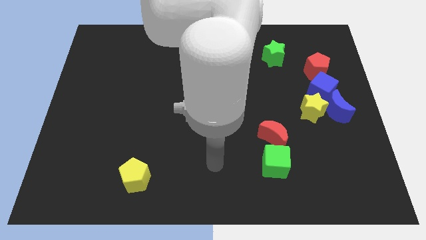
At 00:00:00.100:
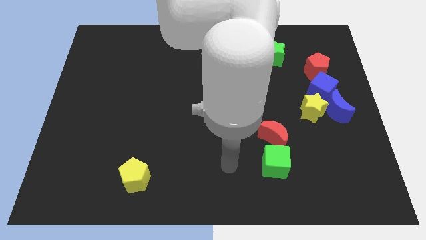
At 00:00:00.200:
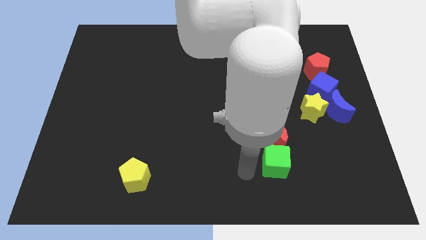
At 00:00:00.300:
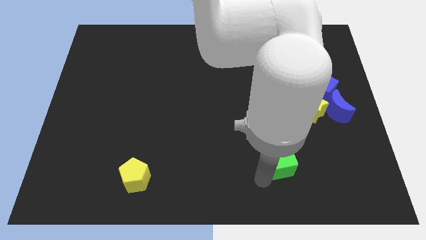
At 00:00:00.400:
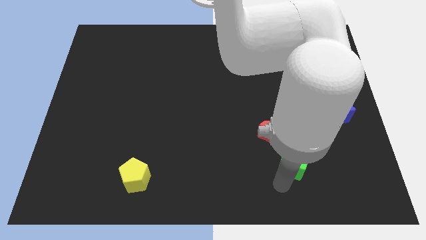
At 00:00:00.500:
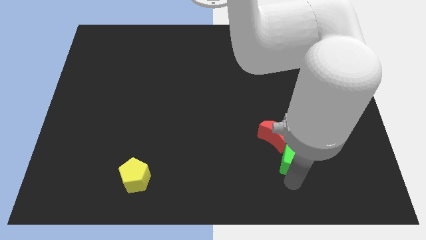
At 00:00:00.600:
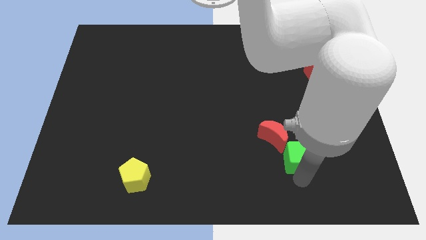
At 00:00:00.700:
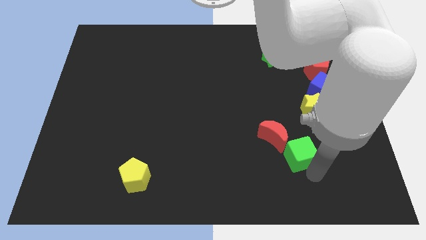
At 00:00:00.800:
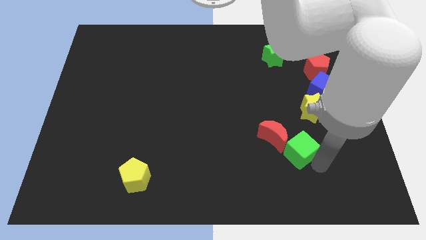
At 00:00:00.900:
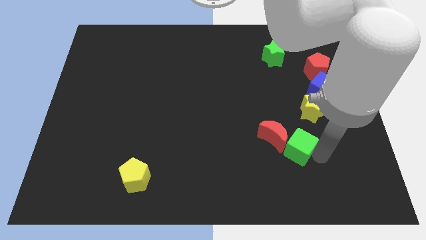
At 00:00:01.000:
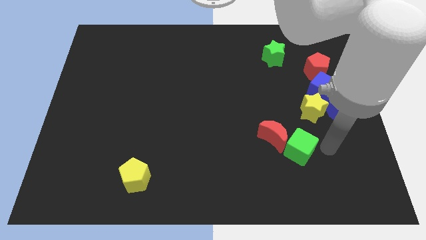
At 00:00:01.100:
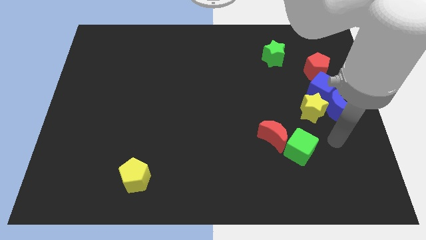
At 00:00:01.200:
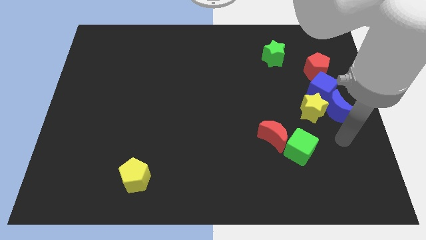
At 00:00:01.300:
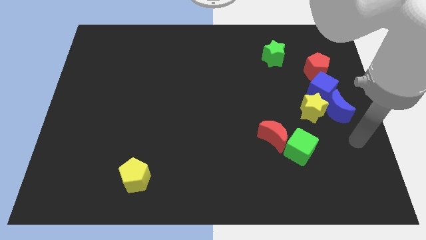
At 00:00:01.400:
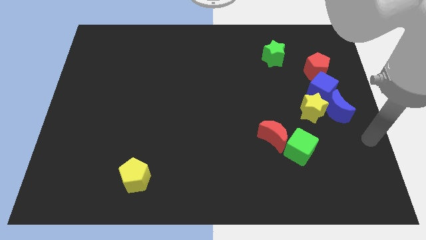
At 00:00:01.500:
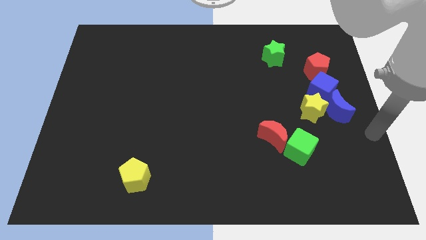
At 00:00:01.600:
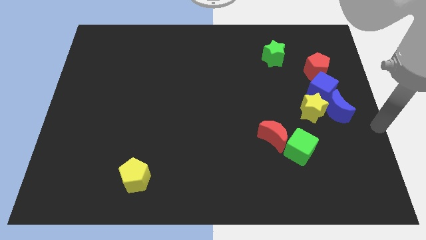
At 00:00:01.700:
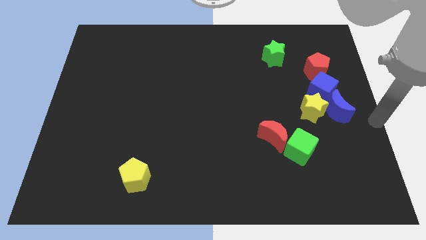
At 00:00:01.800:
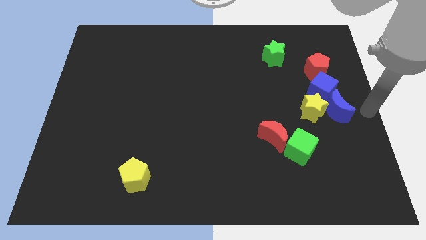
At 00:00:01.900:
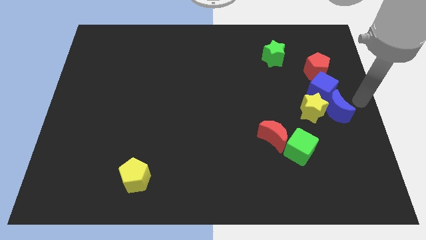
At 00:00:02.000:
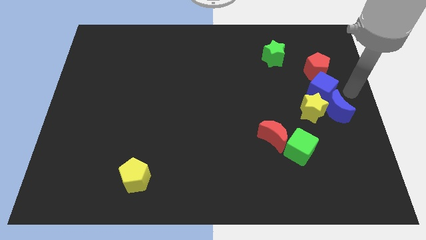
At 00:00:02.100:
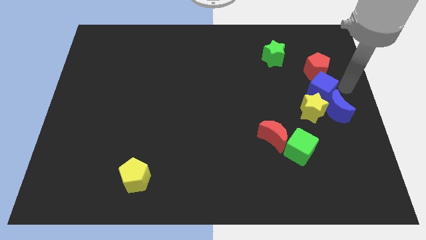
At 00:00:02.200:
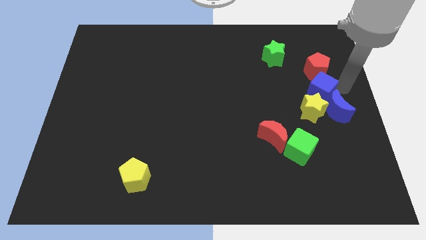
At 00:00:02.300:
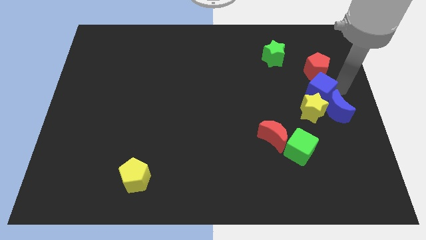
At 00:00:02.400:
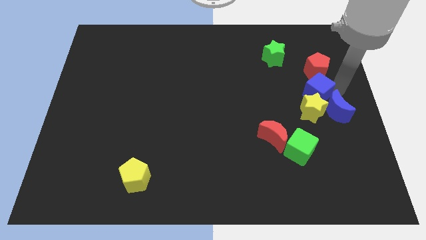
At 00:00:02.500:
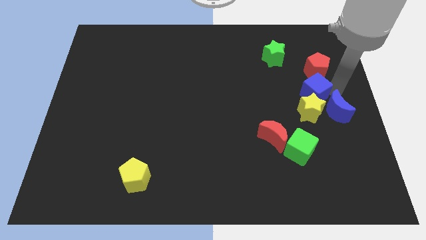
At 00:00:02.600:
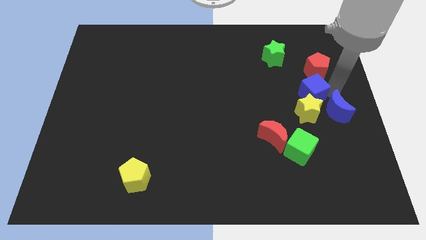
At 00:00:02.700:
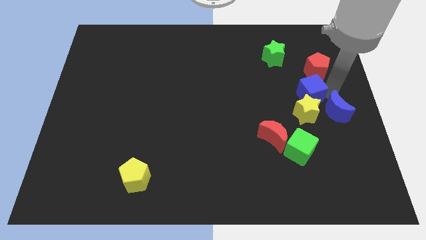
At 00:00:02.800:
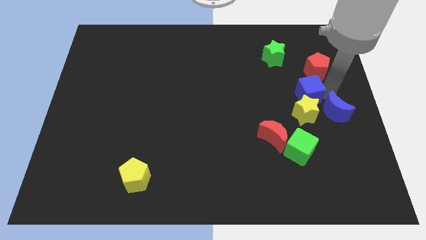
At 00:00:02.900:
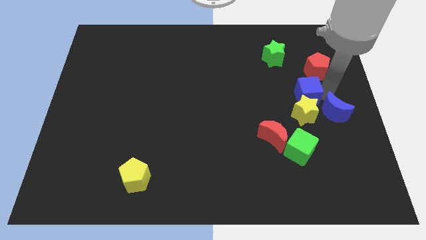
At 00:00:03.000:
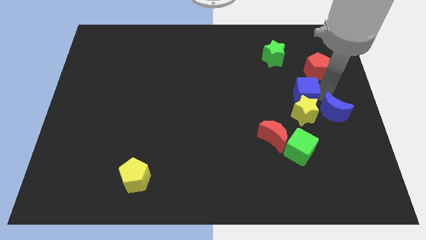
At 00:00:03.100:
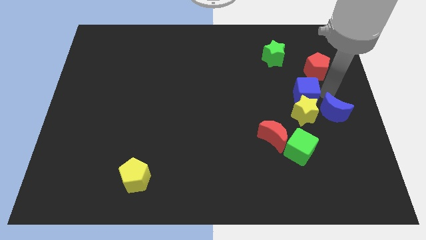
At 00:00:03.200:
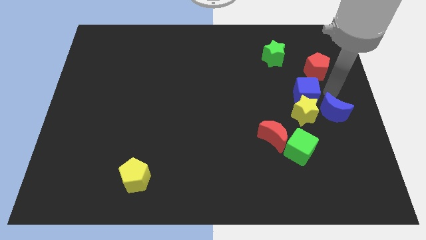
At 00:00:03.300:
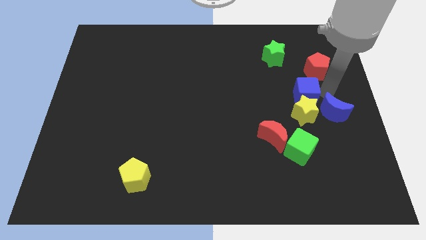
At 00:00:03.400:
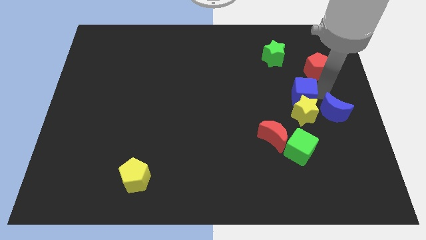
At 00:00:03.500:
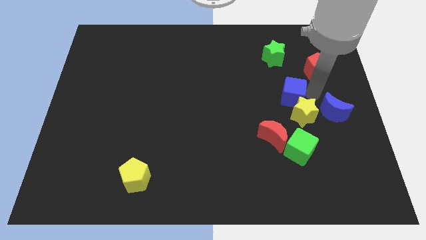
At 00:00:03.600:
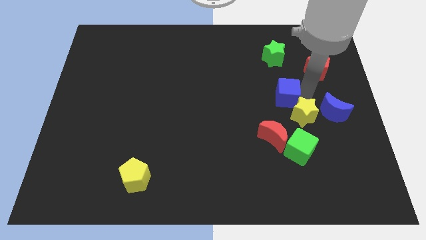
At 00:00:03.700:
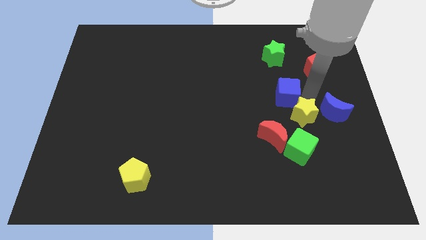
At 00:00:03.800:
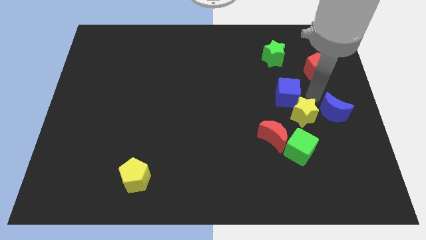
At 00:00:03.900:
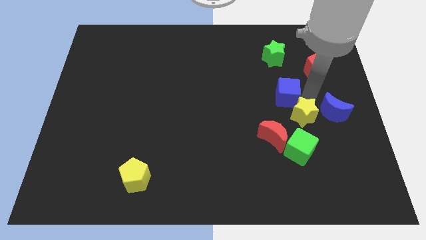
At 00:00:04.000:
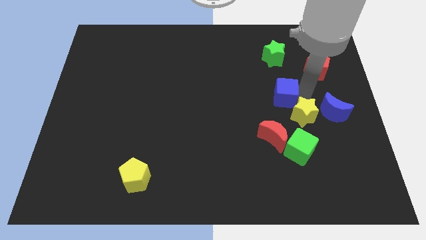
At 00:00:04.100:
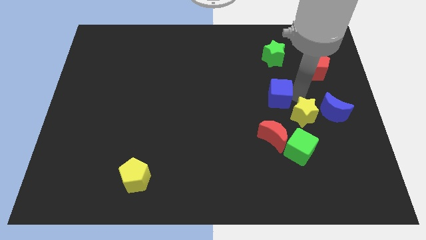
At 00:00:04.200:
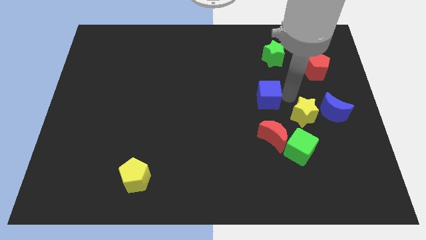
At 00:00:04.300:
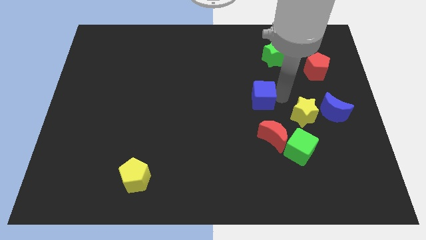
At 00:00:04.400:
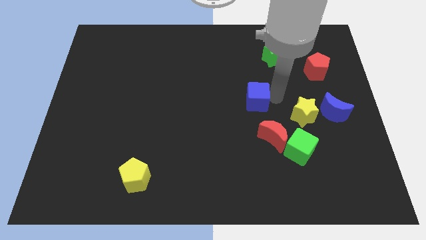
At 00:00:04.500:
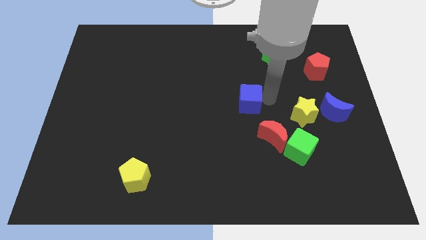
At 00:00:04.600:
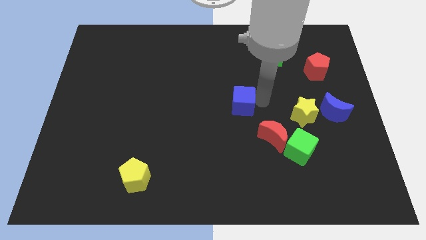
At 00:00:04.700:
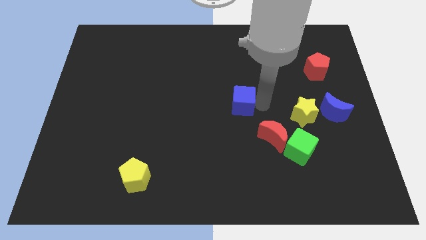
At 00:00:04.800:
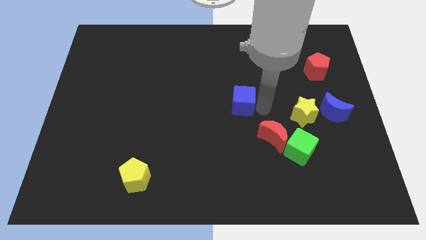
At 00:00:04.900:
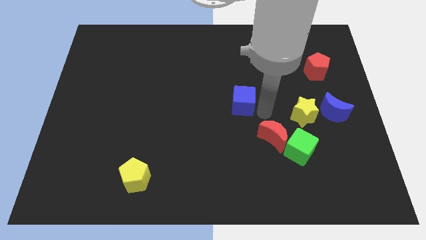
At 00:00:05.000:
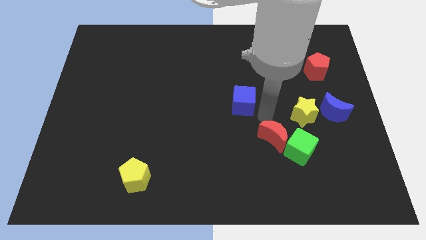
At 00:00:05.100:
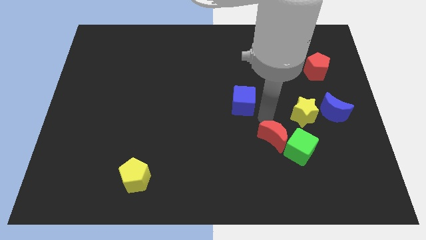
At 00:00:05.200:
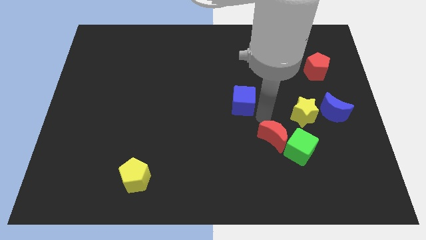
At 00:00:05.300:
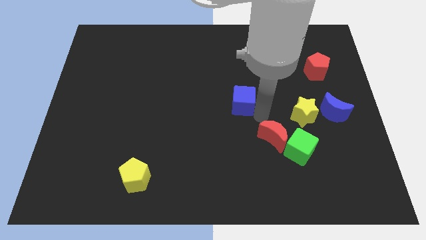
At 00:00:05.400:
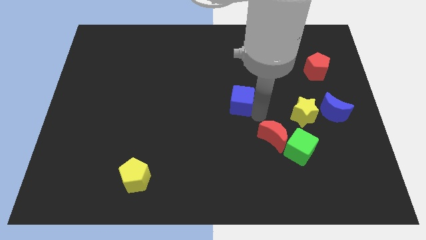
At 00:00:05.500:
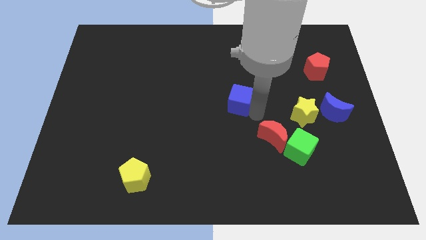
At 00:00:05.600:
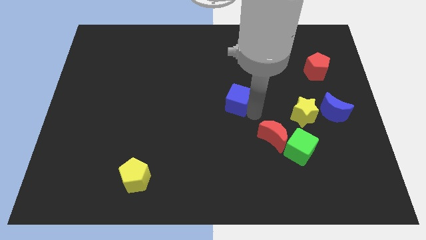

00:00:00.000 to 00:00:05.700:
slide the blue cube to the left

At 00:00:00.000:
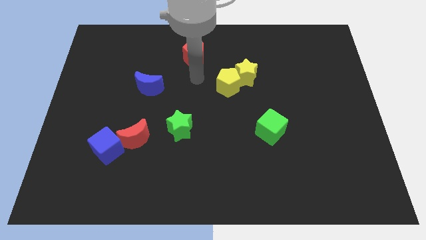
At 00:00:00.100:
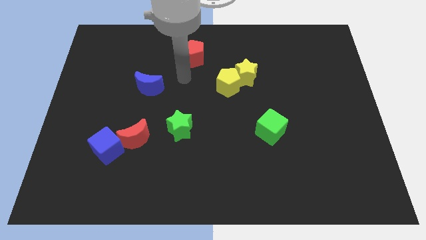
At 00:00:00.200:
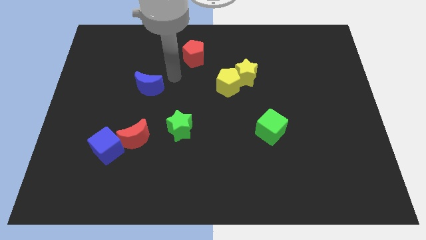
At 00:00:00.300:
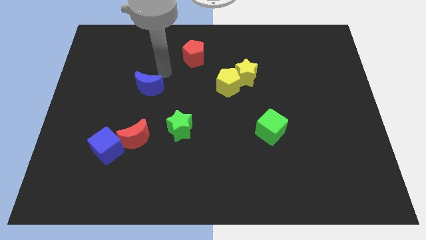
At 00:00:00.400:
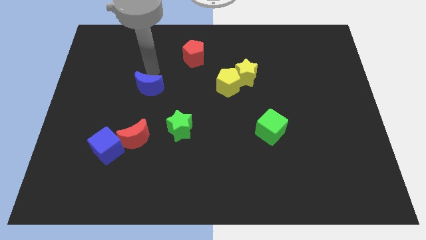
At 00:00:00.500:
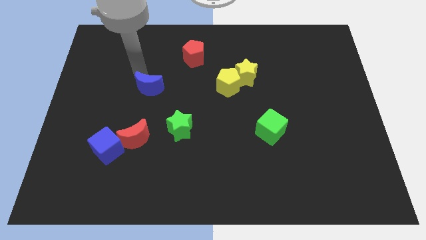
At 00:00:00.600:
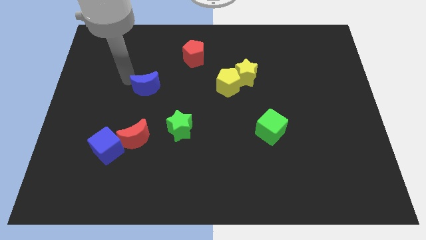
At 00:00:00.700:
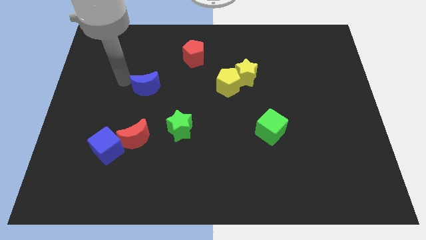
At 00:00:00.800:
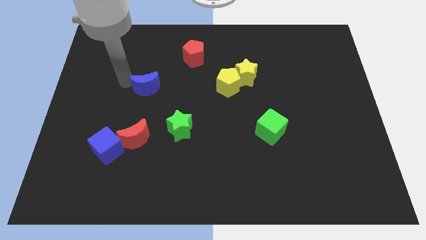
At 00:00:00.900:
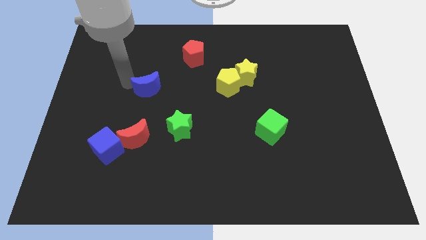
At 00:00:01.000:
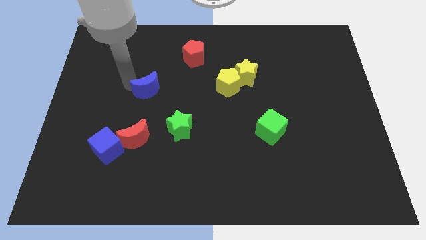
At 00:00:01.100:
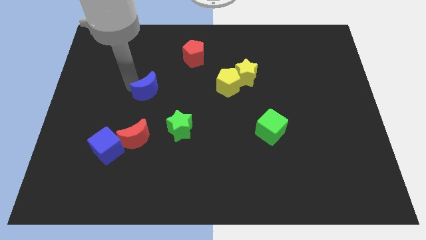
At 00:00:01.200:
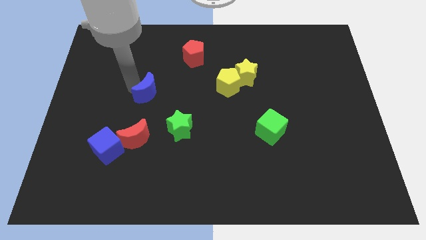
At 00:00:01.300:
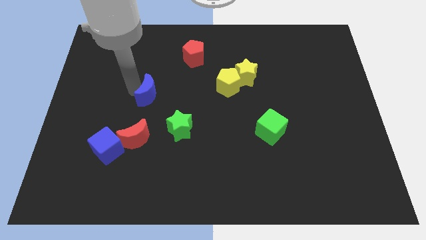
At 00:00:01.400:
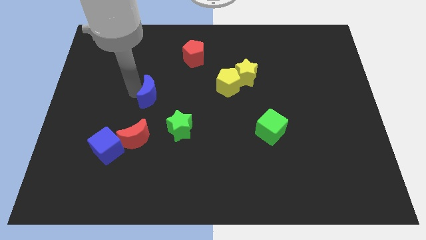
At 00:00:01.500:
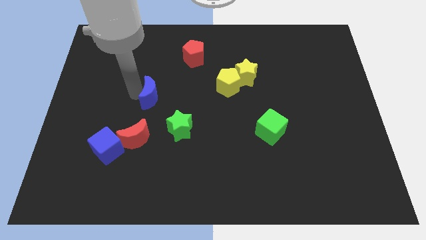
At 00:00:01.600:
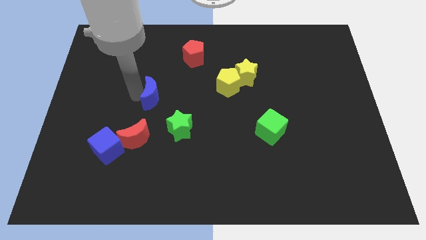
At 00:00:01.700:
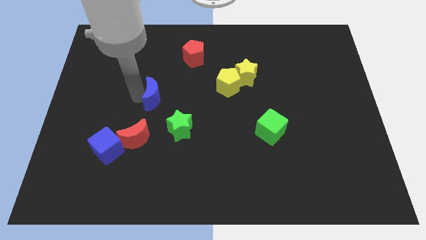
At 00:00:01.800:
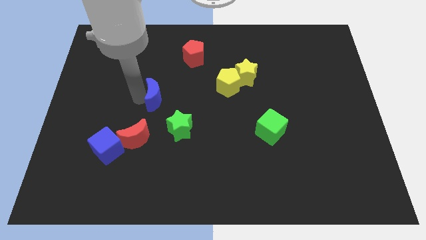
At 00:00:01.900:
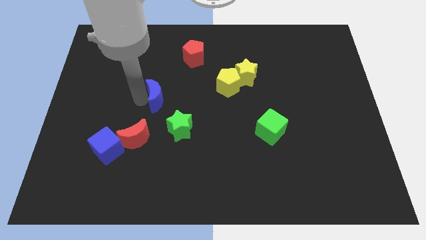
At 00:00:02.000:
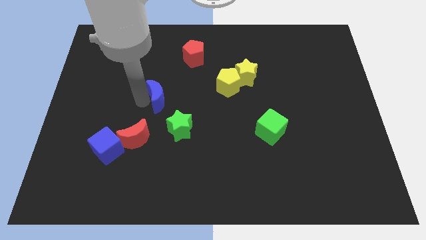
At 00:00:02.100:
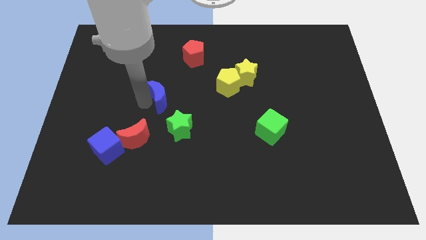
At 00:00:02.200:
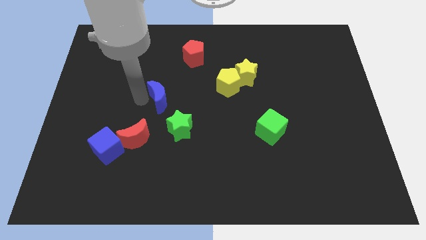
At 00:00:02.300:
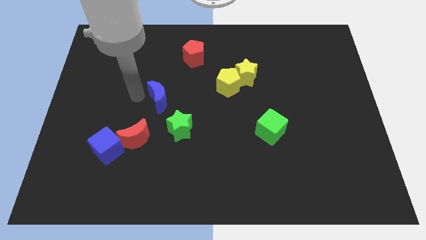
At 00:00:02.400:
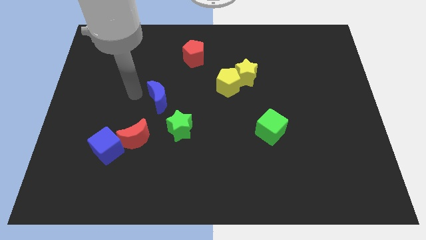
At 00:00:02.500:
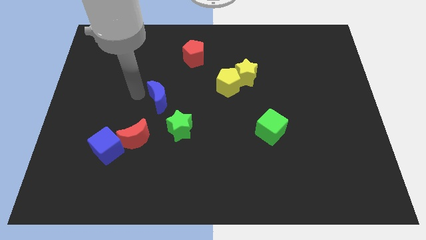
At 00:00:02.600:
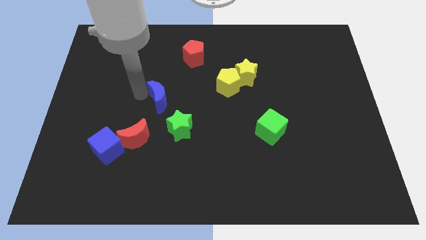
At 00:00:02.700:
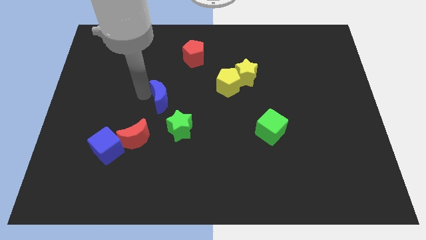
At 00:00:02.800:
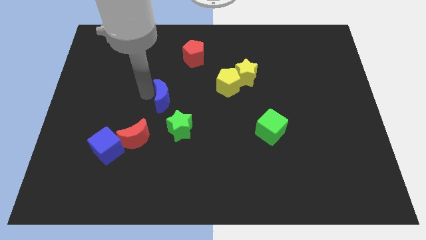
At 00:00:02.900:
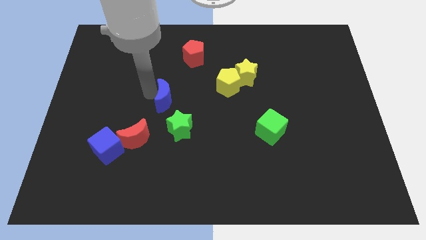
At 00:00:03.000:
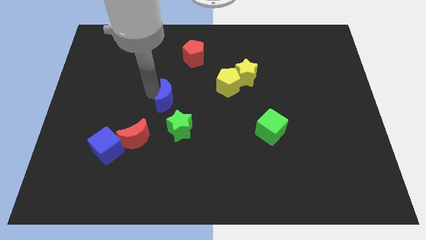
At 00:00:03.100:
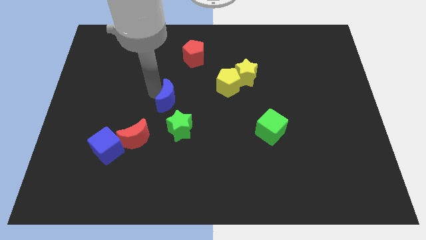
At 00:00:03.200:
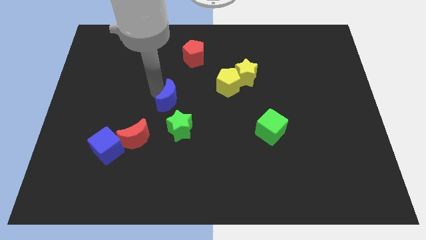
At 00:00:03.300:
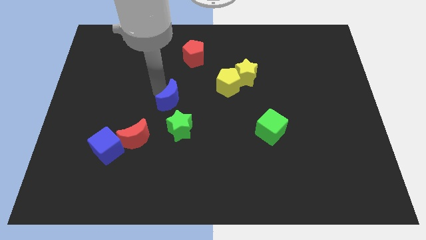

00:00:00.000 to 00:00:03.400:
slide the blue moon a little diagonally downwards and right
